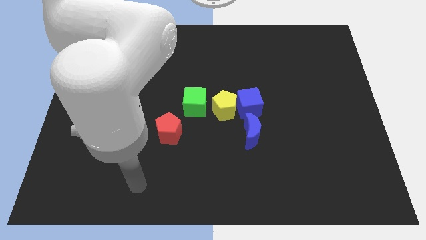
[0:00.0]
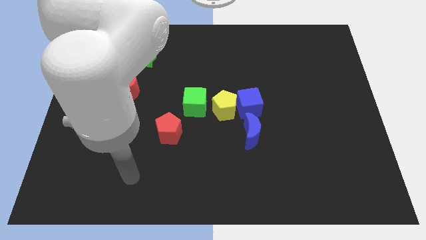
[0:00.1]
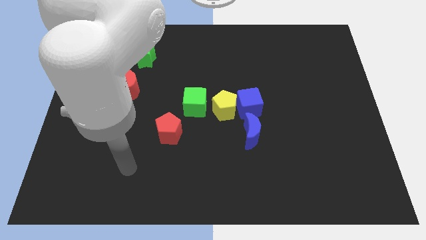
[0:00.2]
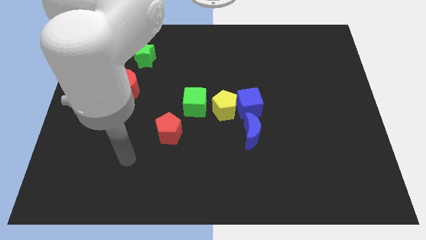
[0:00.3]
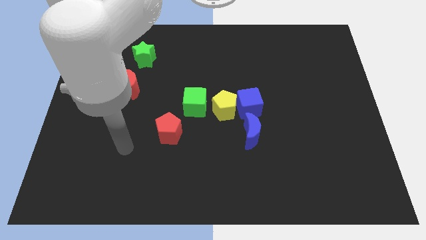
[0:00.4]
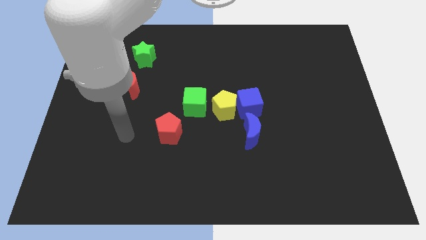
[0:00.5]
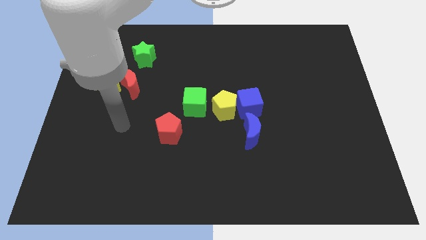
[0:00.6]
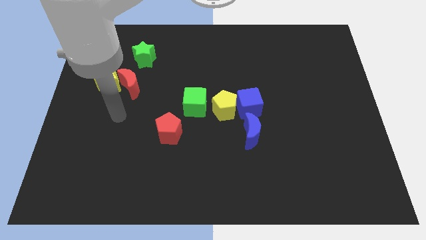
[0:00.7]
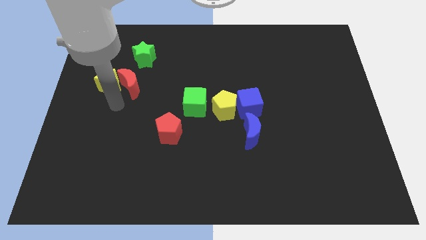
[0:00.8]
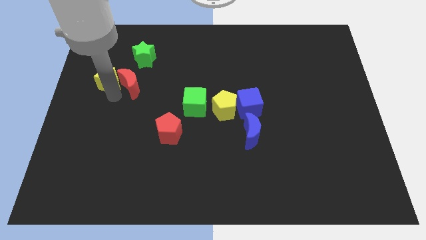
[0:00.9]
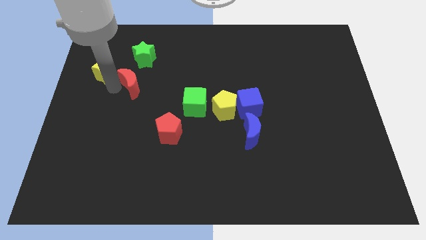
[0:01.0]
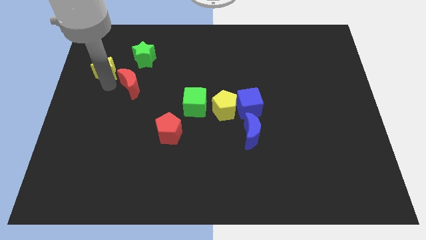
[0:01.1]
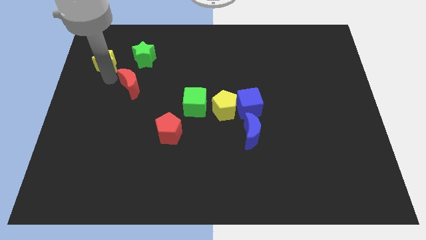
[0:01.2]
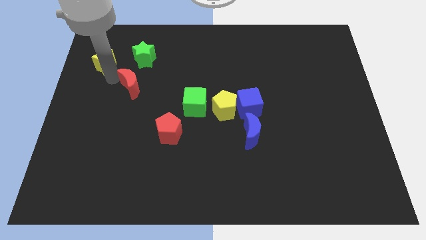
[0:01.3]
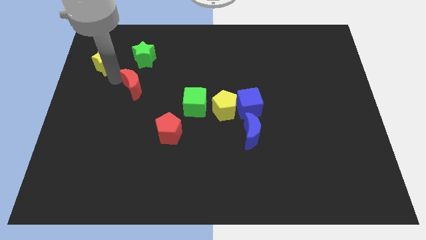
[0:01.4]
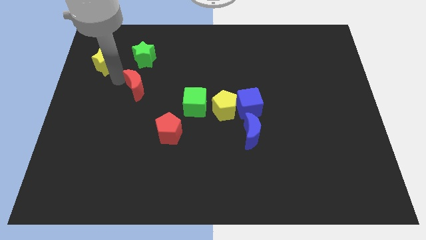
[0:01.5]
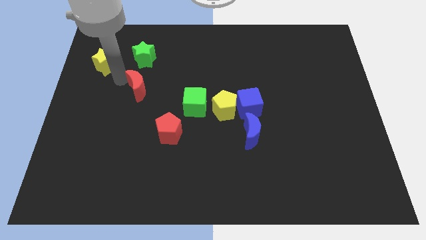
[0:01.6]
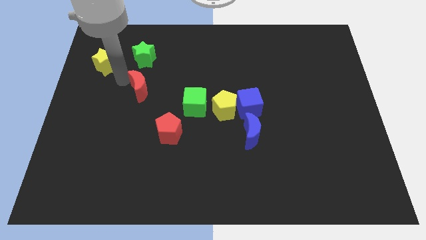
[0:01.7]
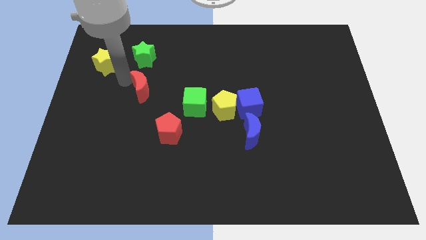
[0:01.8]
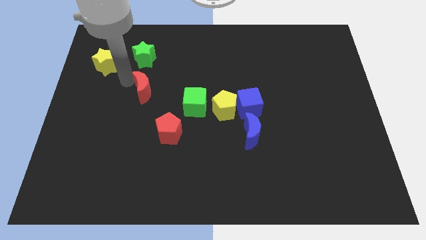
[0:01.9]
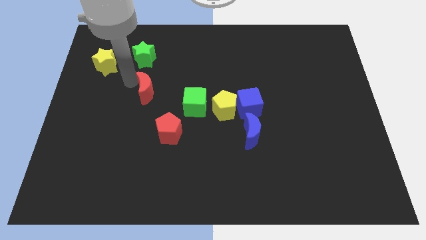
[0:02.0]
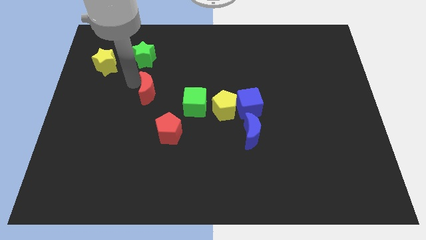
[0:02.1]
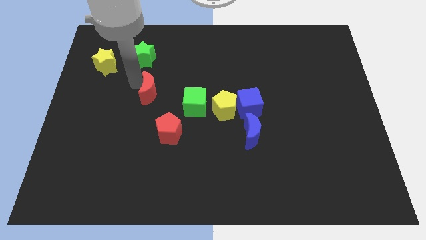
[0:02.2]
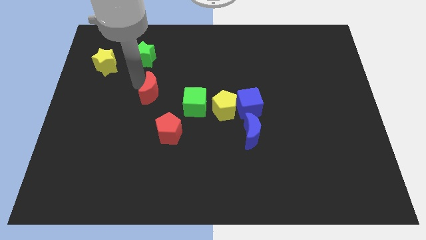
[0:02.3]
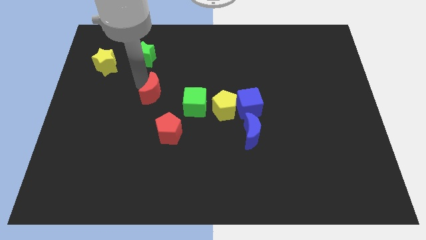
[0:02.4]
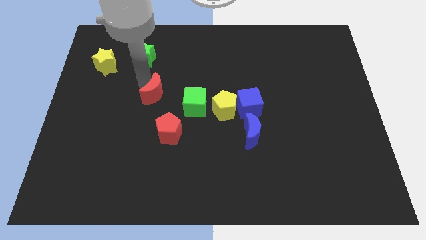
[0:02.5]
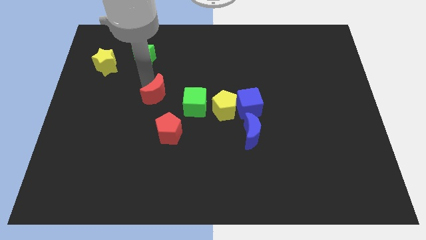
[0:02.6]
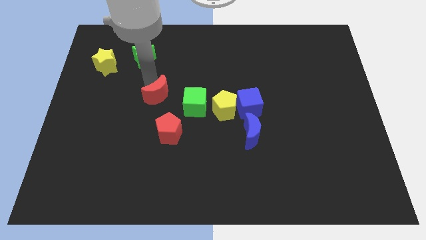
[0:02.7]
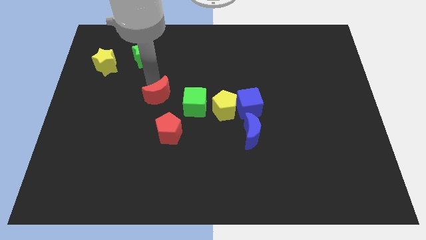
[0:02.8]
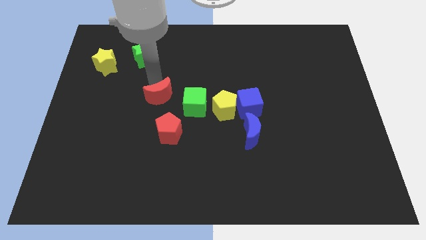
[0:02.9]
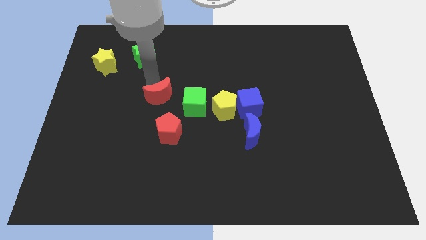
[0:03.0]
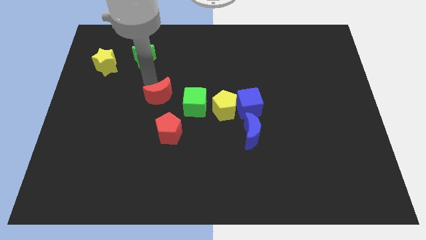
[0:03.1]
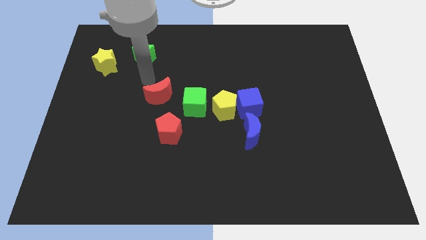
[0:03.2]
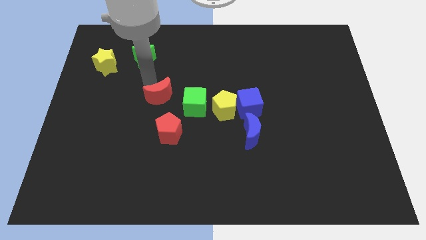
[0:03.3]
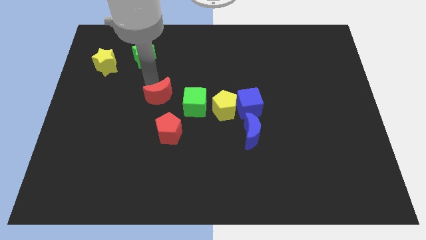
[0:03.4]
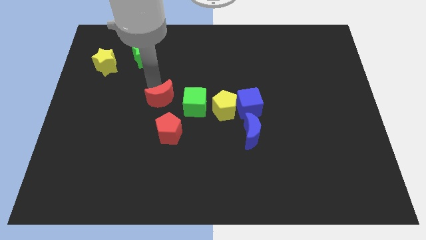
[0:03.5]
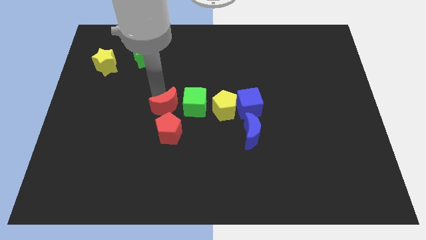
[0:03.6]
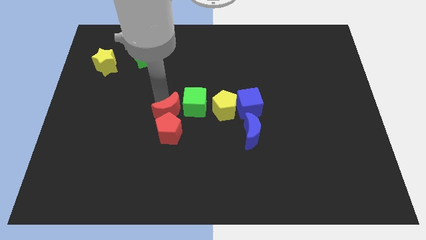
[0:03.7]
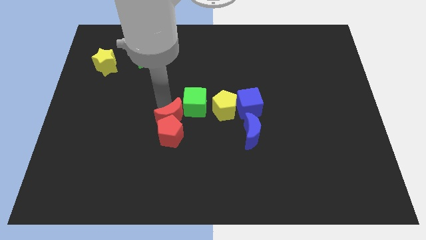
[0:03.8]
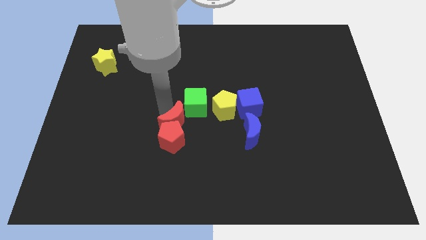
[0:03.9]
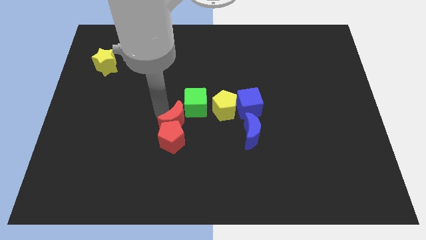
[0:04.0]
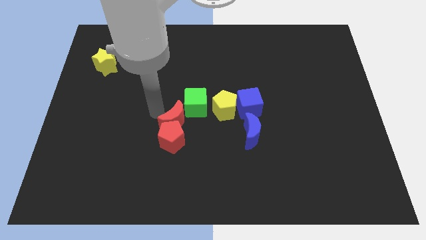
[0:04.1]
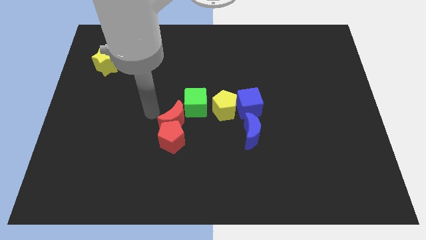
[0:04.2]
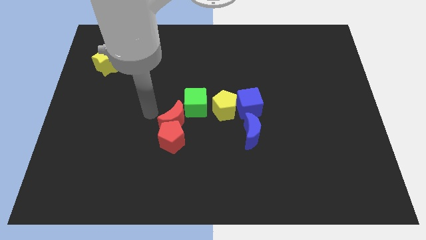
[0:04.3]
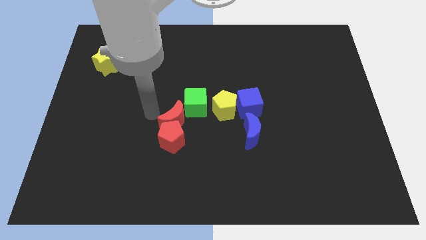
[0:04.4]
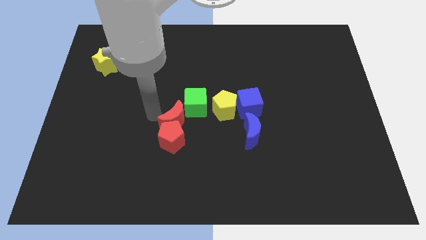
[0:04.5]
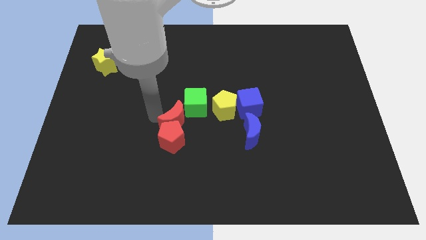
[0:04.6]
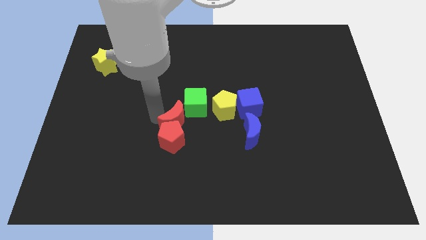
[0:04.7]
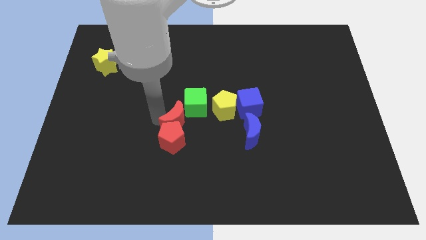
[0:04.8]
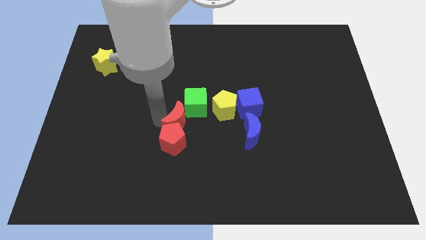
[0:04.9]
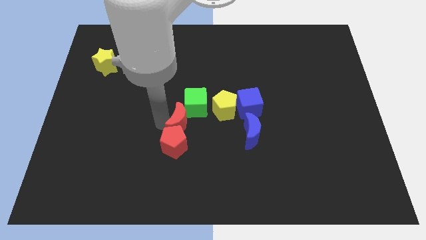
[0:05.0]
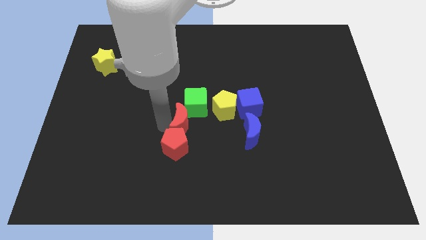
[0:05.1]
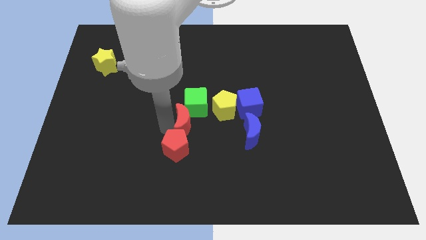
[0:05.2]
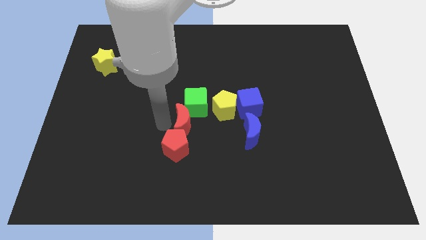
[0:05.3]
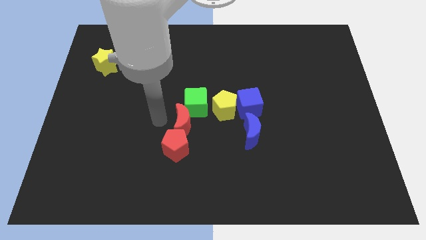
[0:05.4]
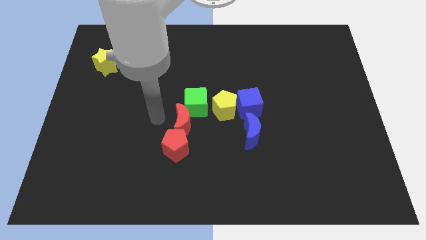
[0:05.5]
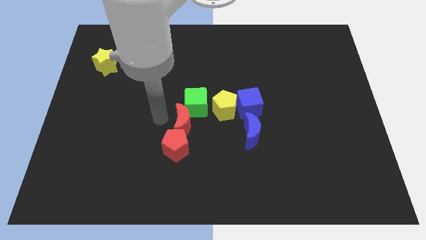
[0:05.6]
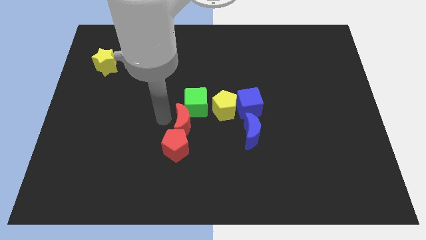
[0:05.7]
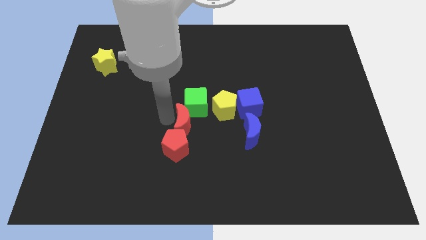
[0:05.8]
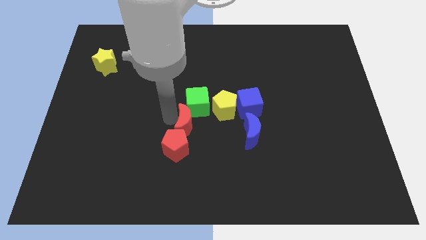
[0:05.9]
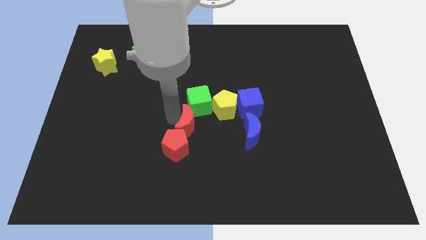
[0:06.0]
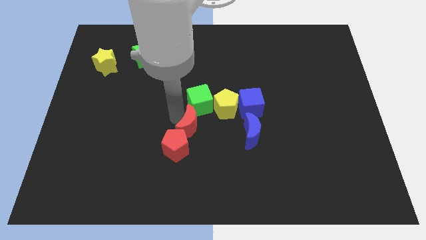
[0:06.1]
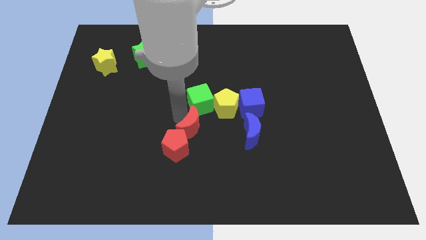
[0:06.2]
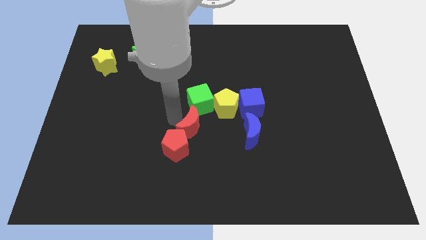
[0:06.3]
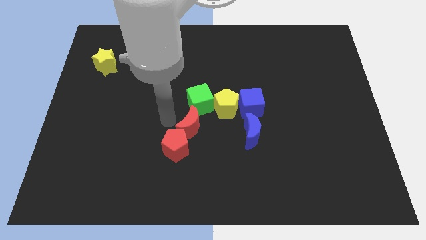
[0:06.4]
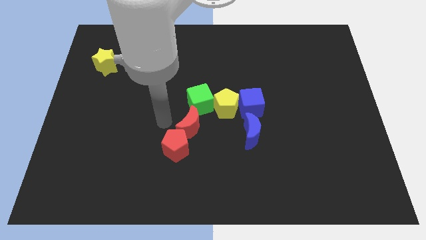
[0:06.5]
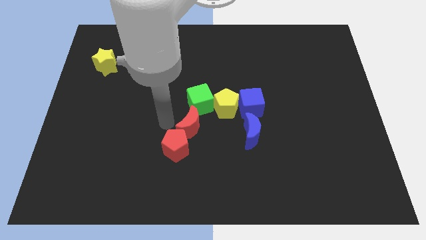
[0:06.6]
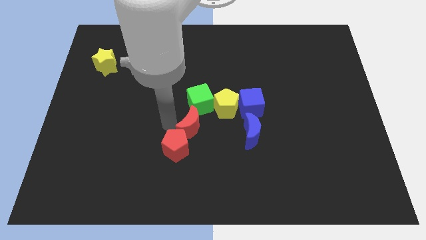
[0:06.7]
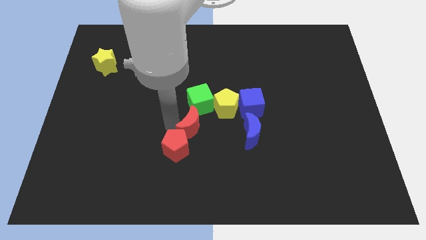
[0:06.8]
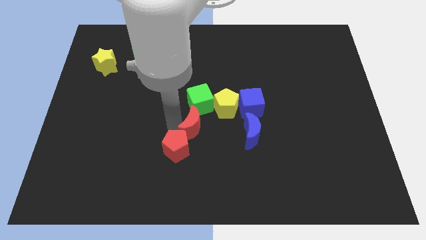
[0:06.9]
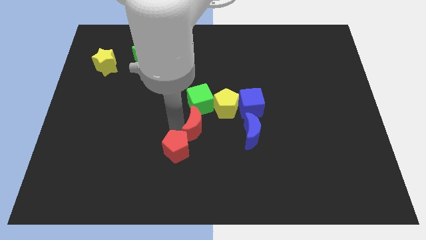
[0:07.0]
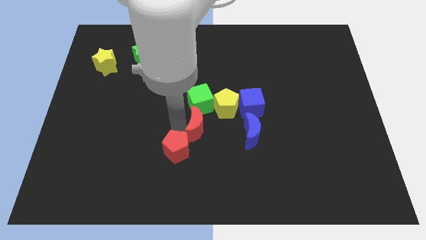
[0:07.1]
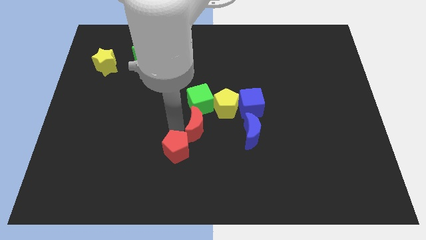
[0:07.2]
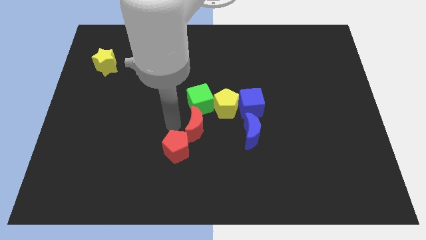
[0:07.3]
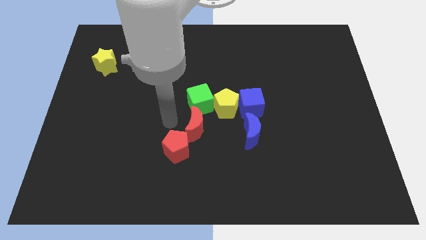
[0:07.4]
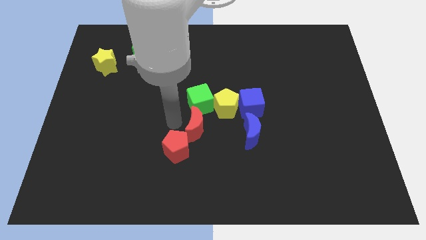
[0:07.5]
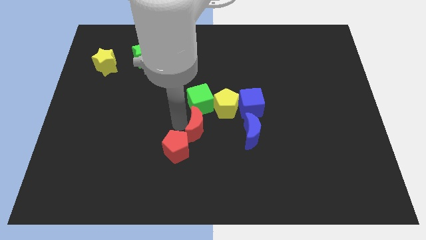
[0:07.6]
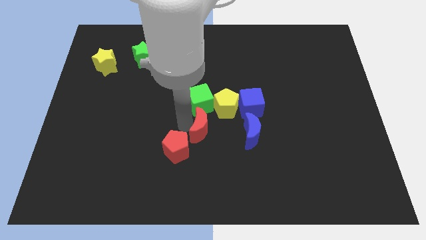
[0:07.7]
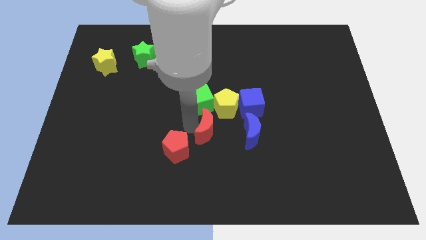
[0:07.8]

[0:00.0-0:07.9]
put the red moon diagonally down and to the left of the blue cube

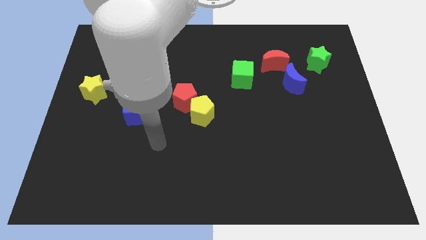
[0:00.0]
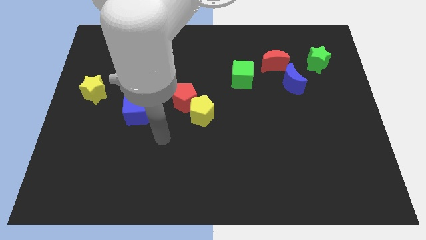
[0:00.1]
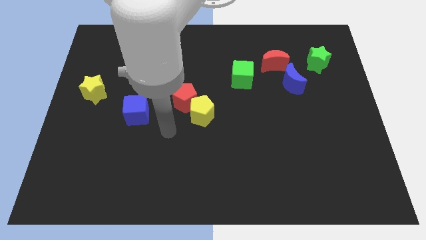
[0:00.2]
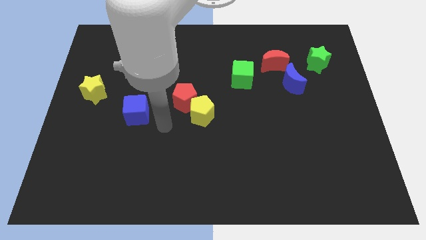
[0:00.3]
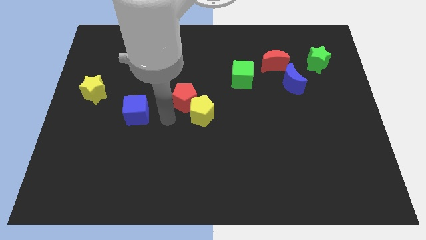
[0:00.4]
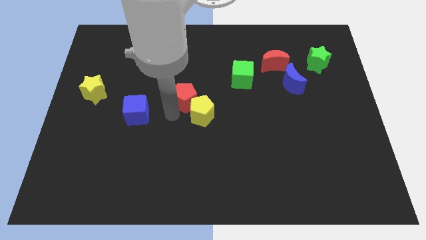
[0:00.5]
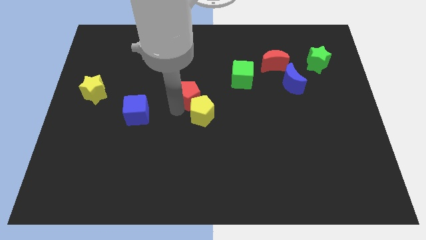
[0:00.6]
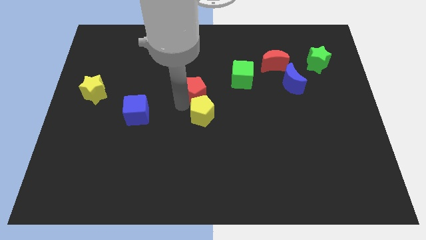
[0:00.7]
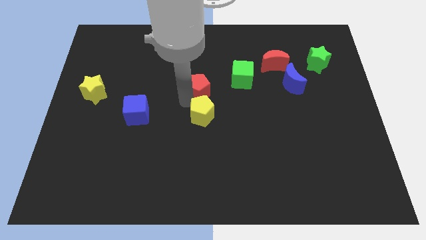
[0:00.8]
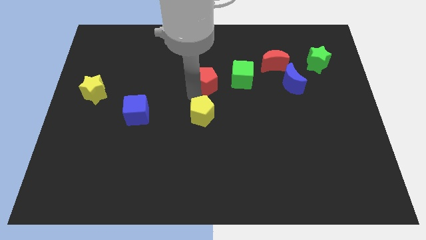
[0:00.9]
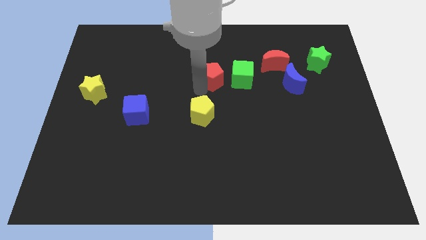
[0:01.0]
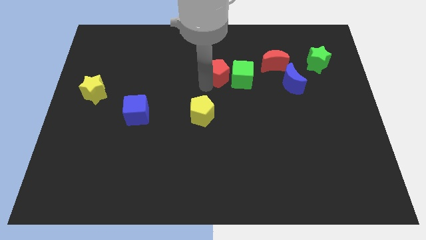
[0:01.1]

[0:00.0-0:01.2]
push the red pentagon diagonally up and to the left of the green cube
